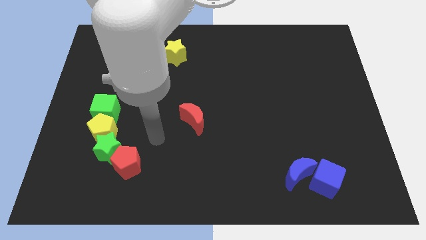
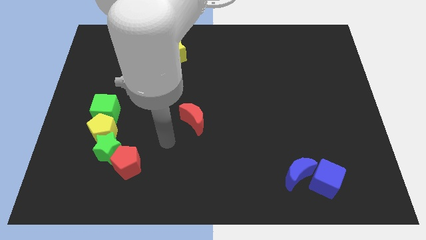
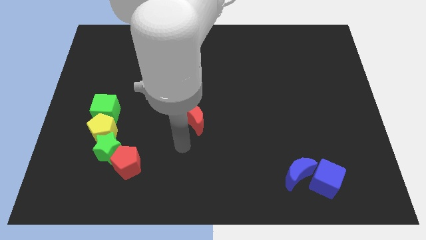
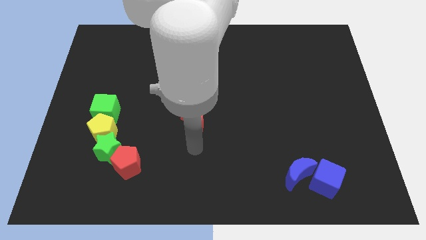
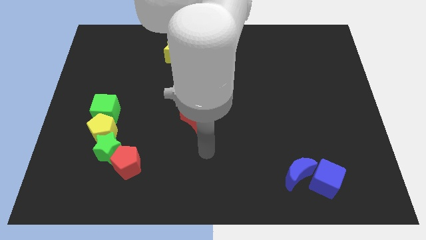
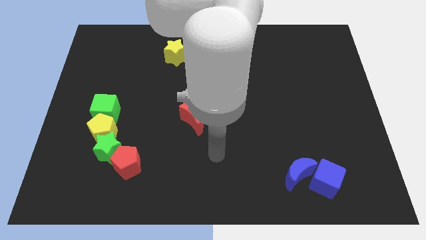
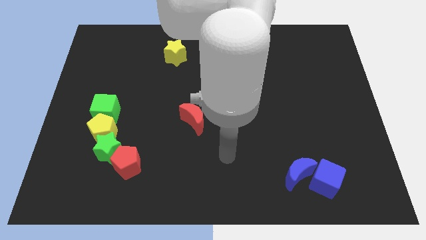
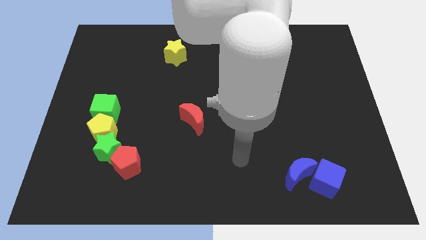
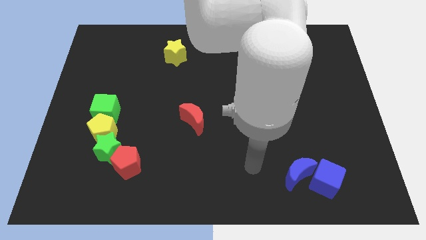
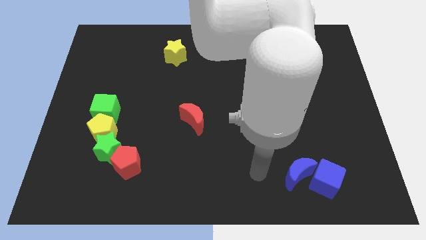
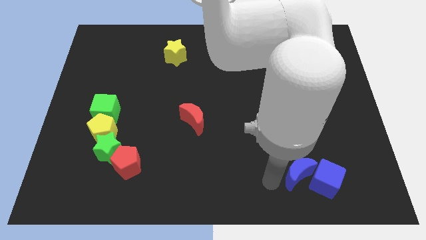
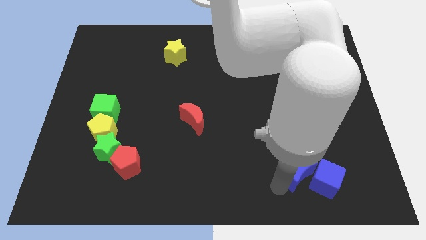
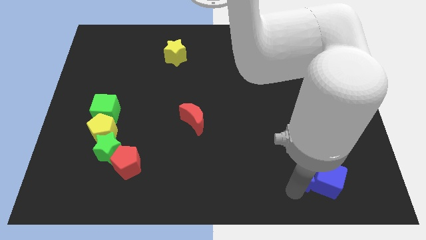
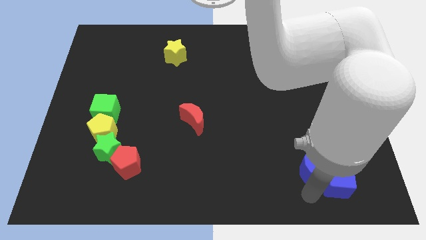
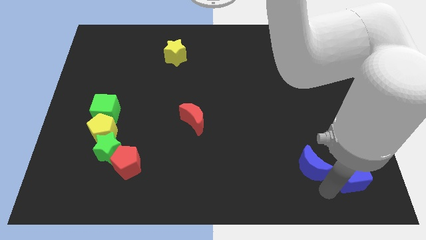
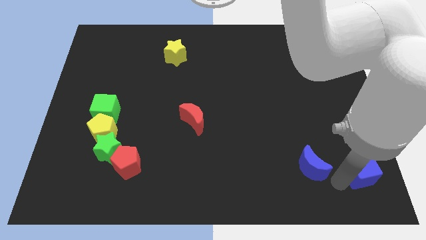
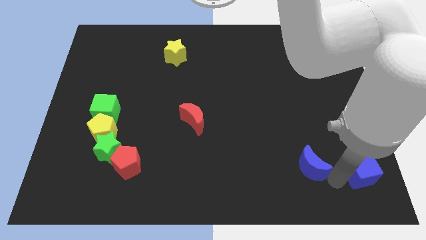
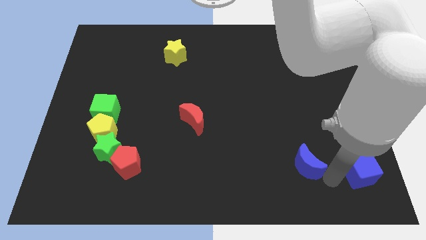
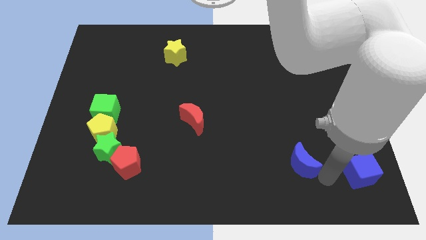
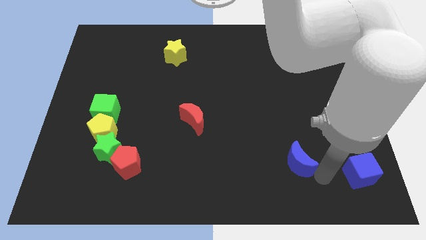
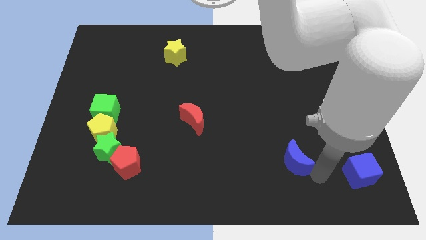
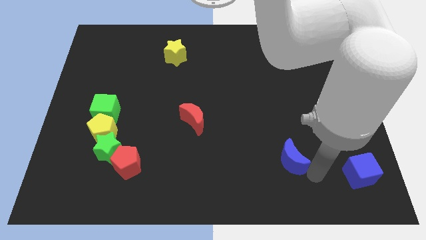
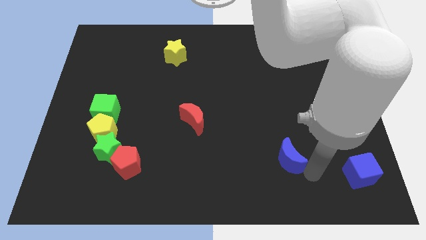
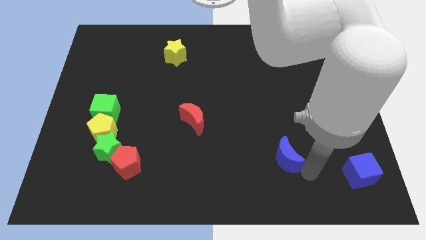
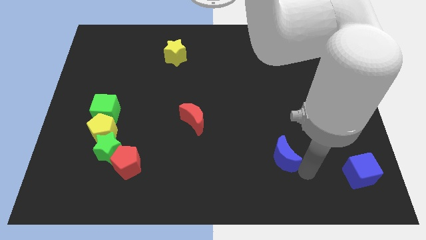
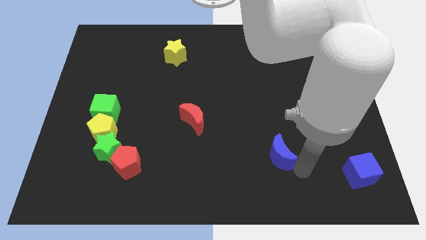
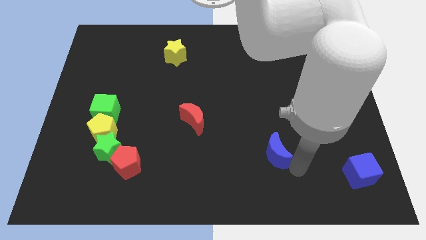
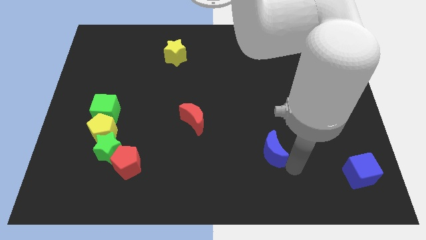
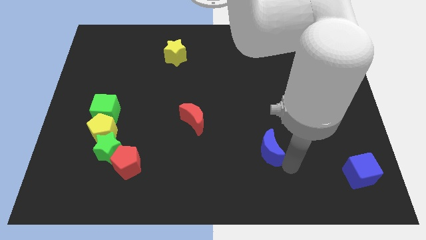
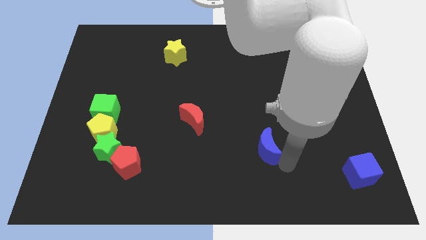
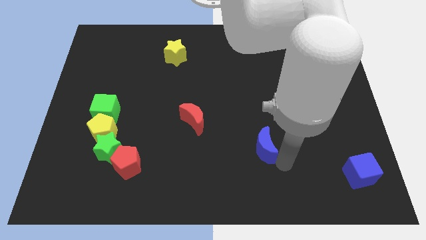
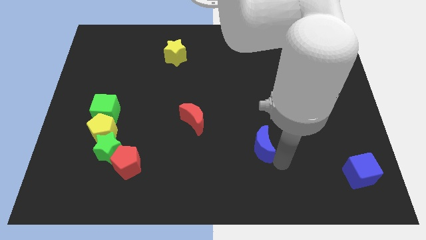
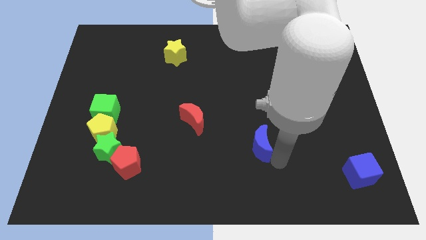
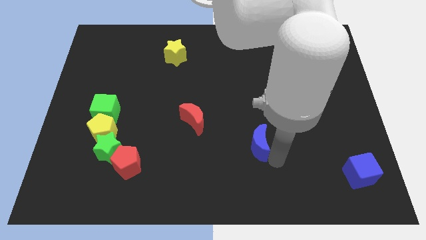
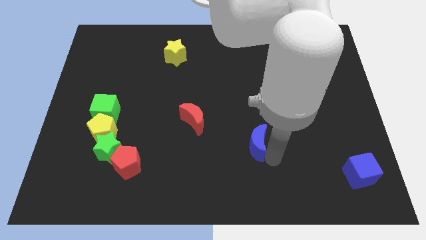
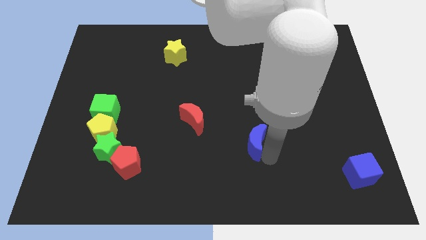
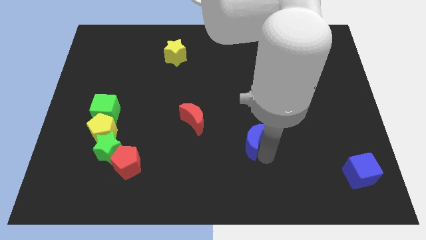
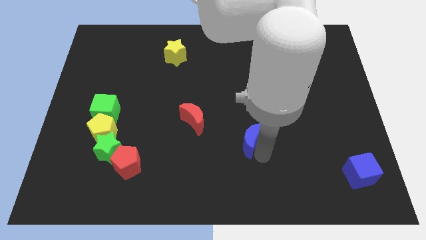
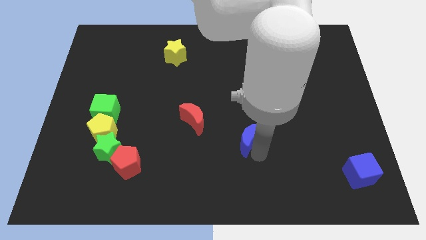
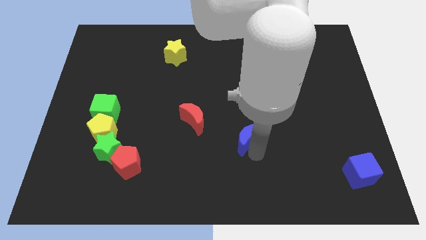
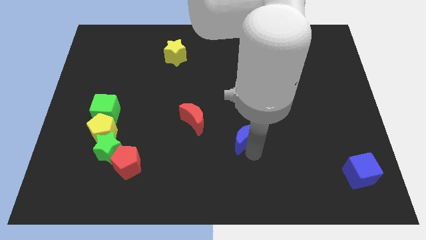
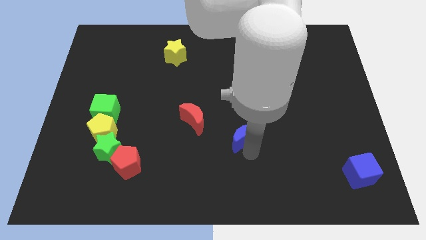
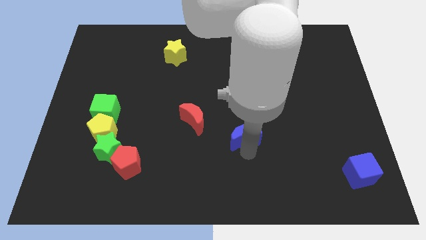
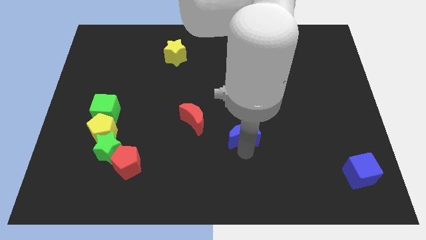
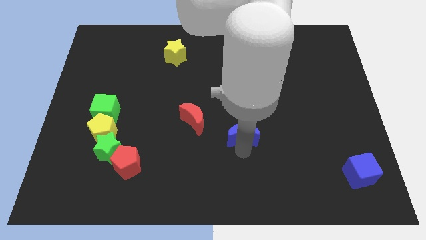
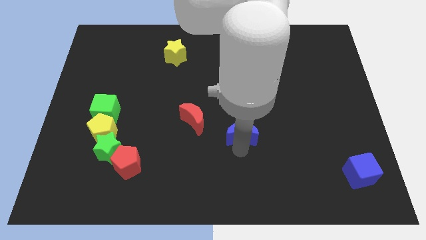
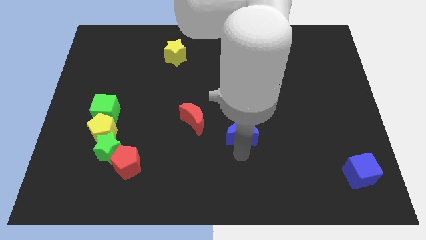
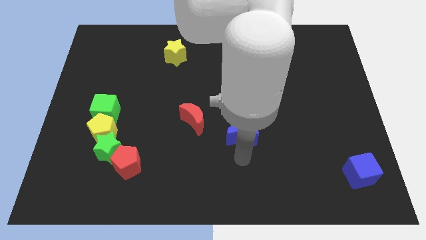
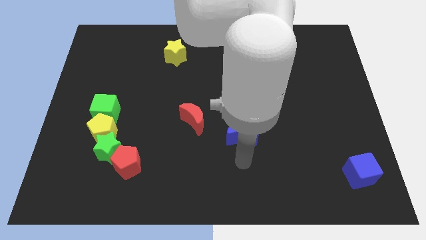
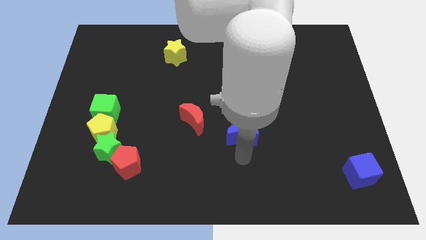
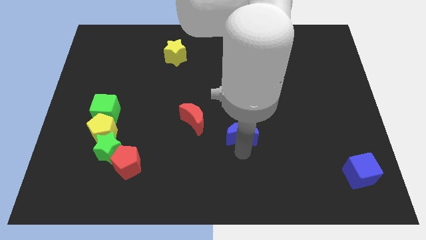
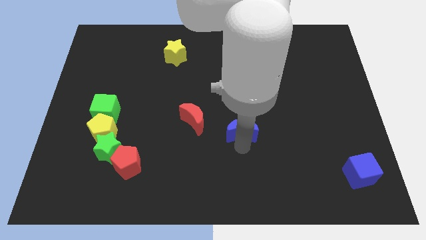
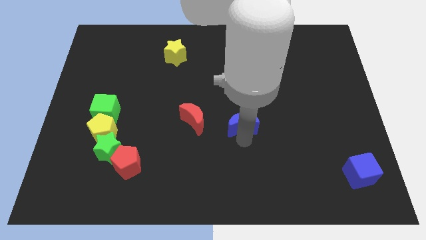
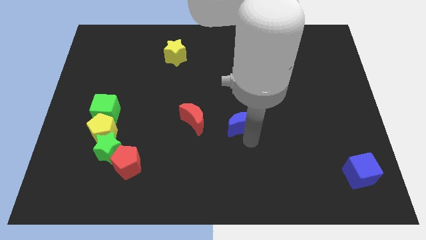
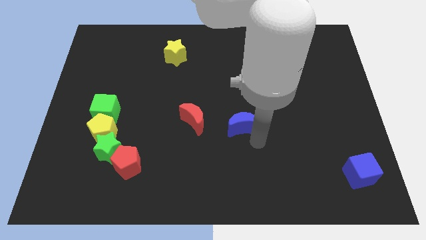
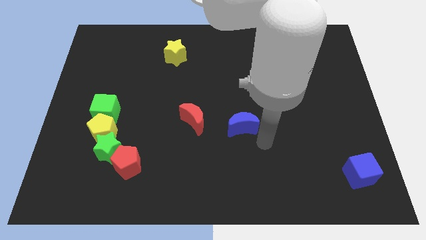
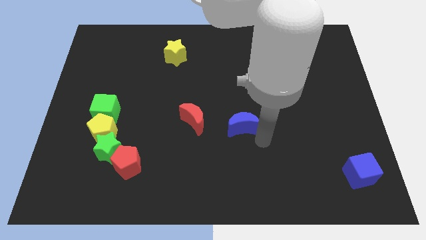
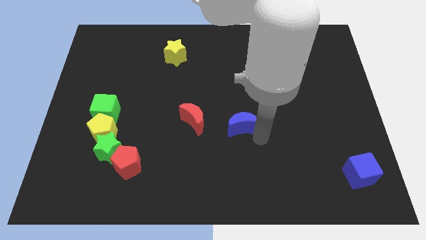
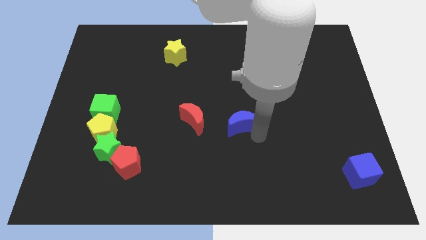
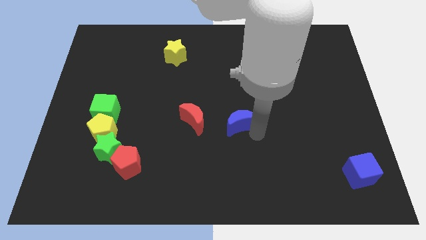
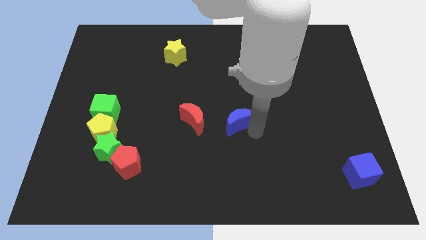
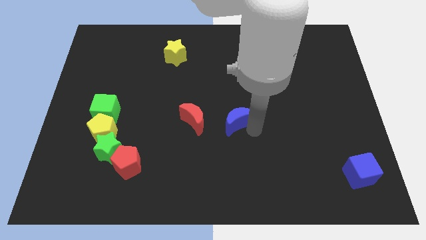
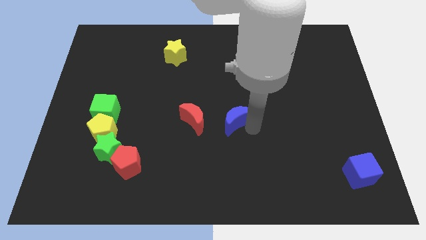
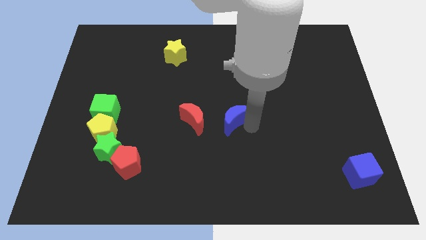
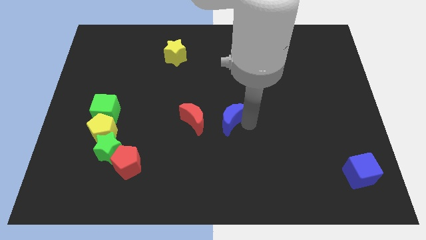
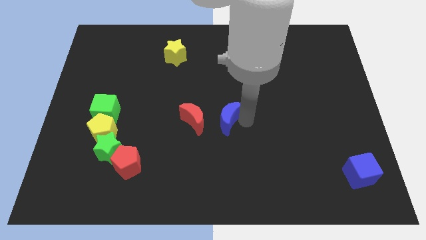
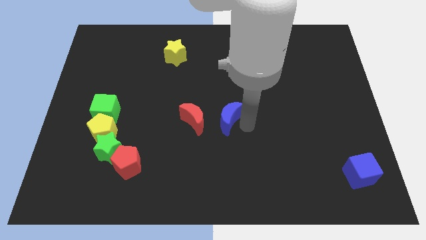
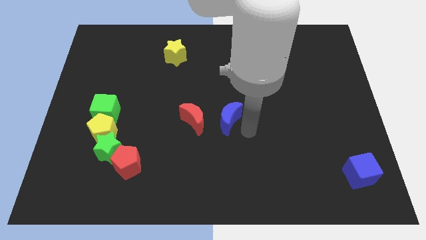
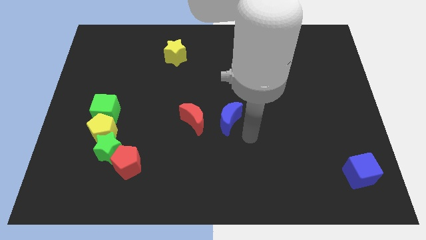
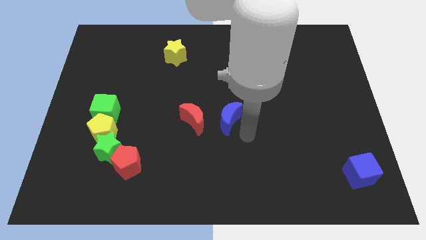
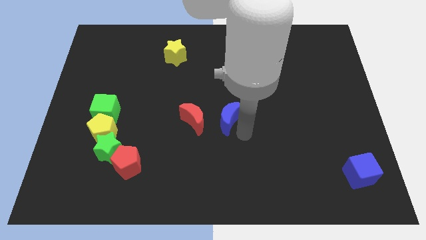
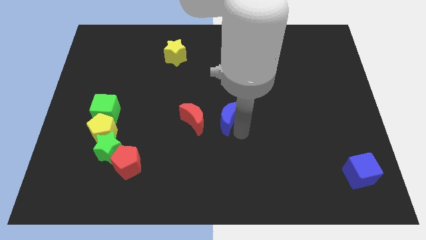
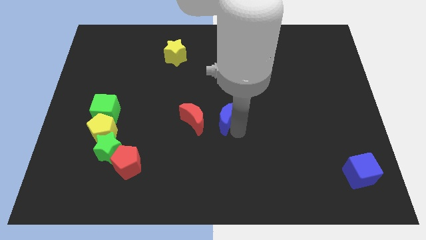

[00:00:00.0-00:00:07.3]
push the blue moon diagonally up and left

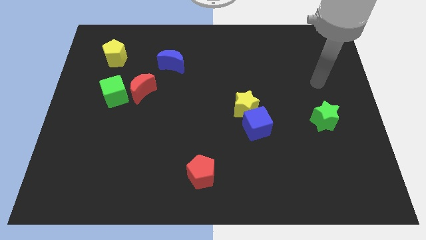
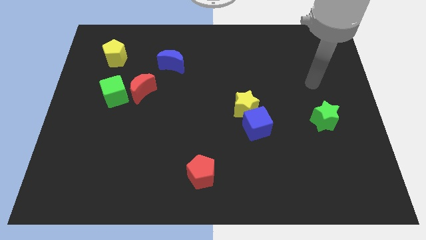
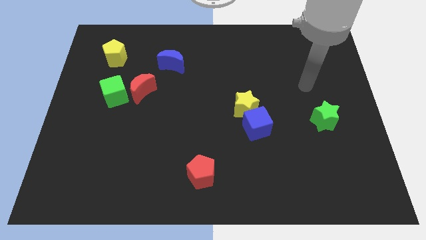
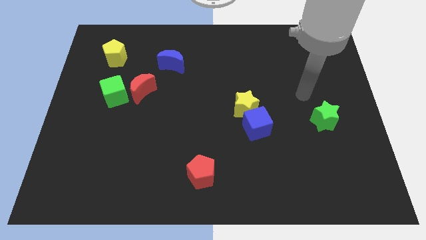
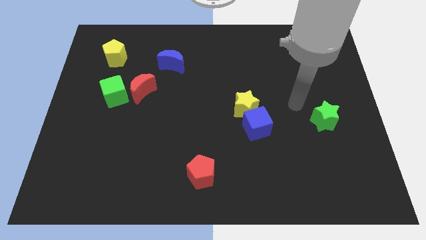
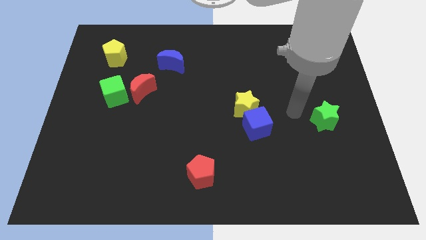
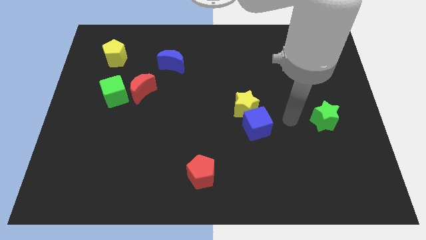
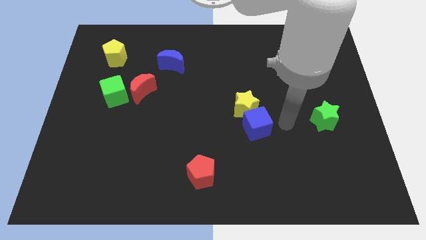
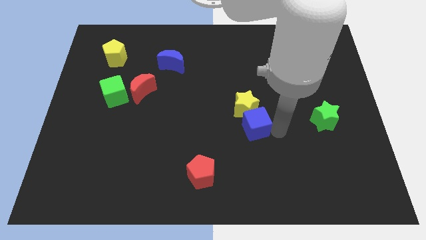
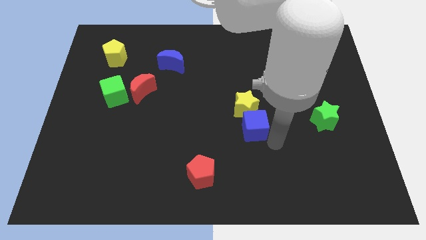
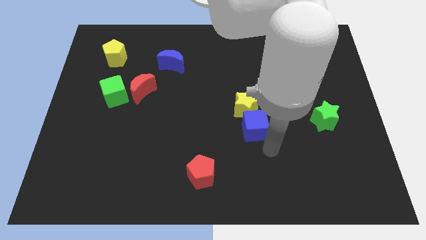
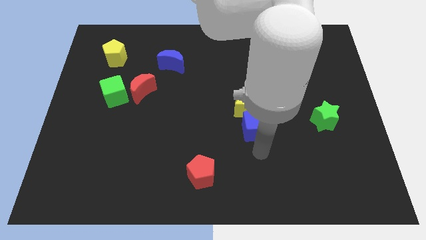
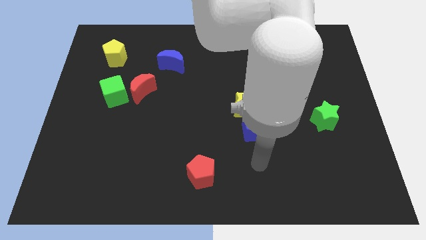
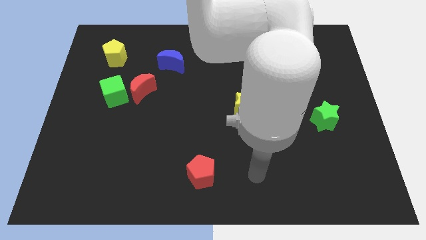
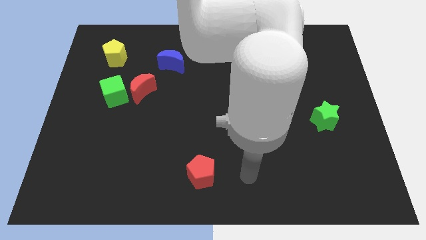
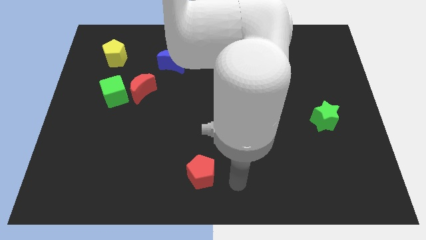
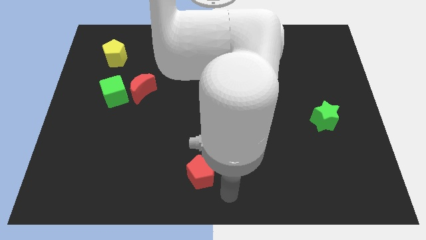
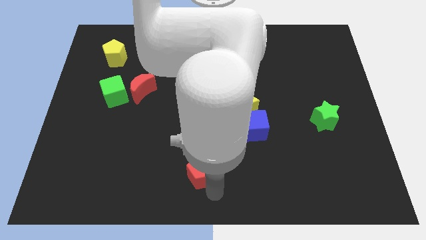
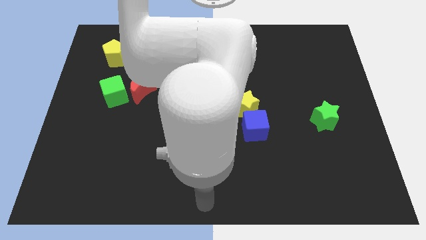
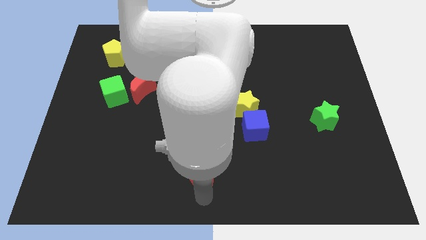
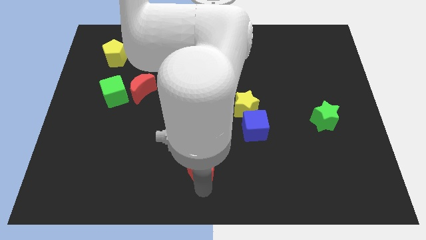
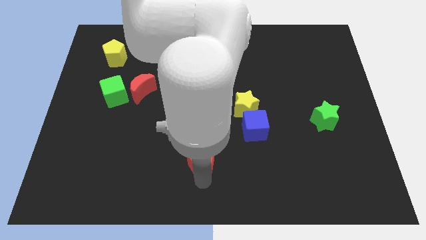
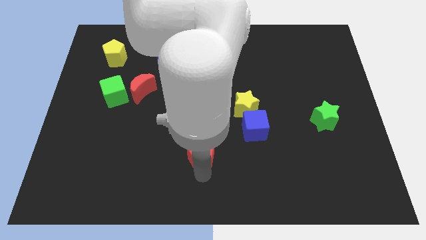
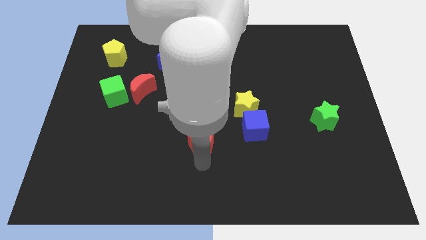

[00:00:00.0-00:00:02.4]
slide the red pentagon upwards a little
